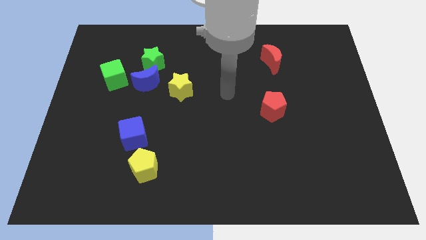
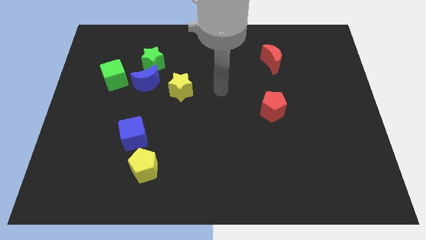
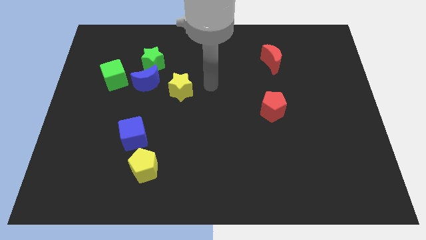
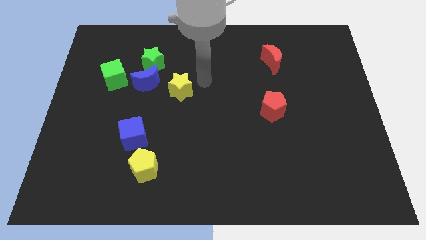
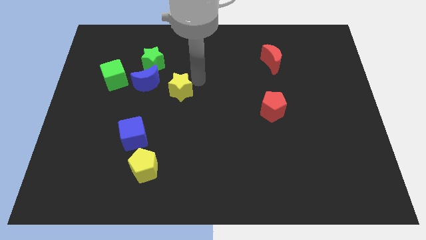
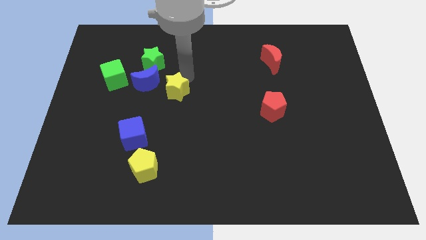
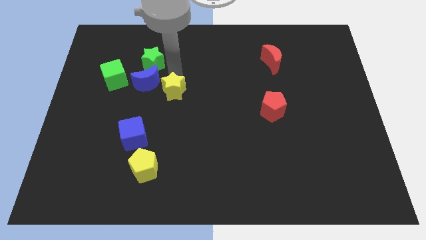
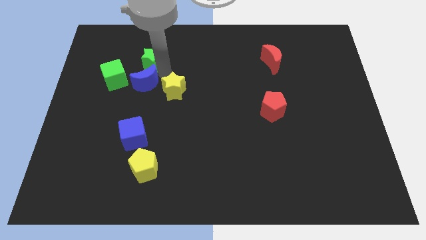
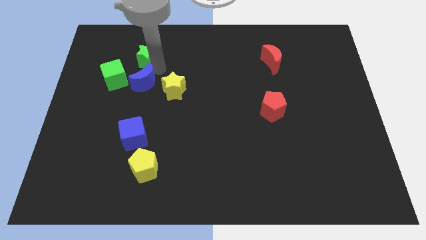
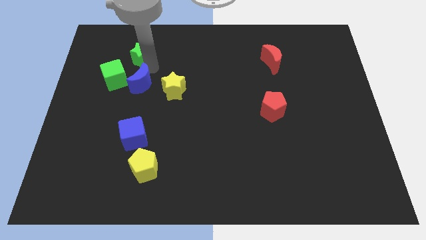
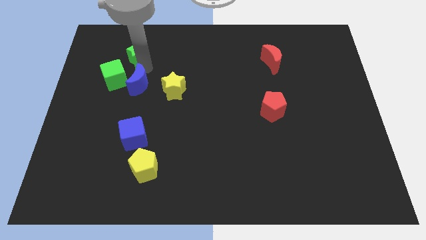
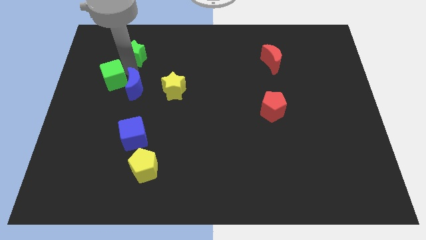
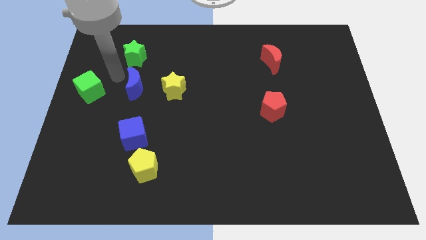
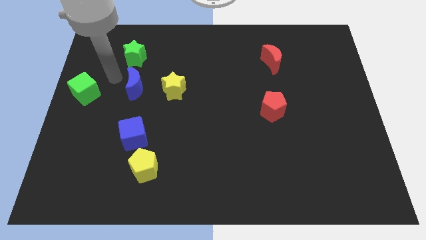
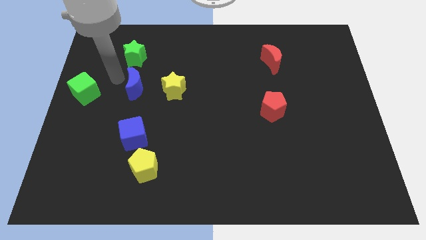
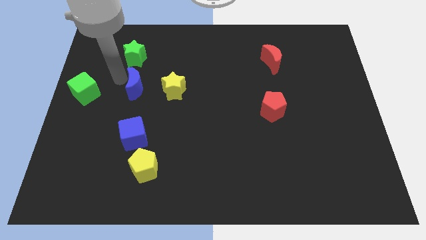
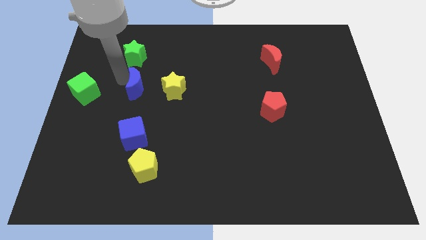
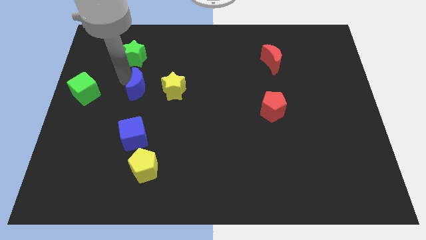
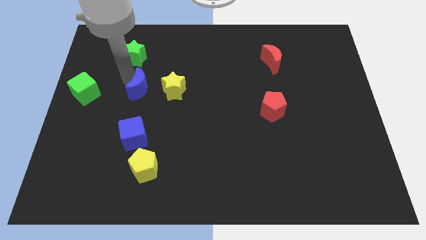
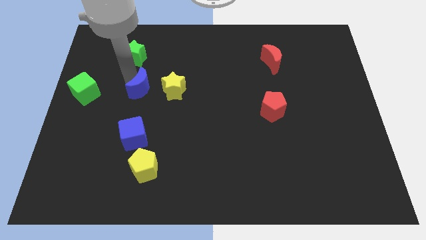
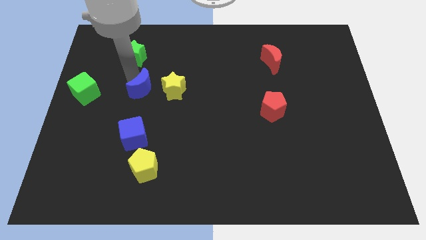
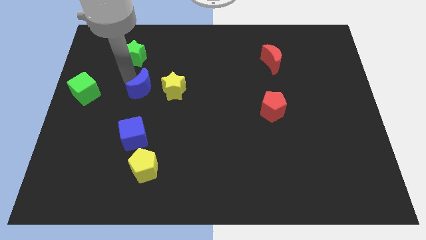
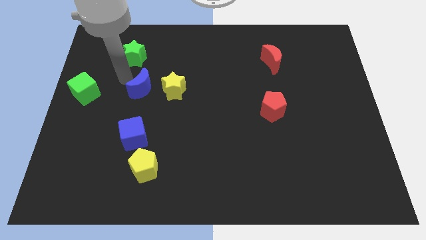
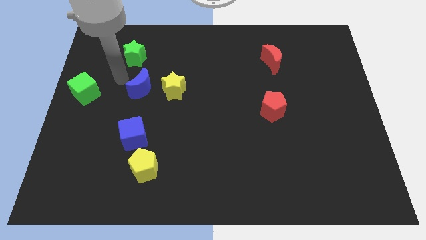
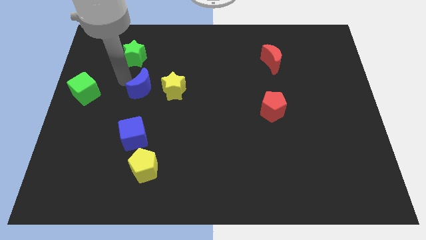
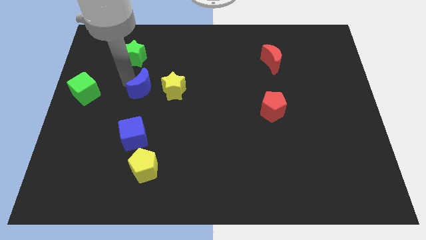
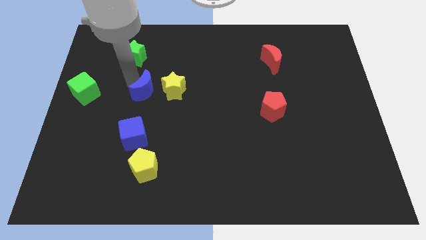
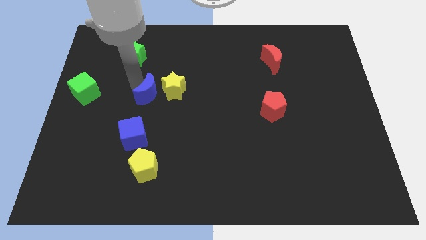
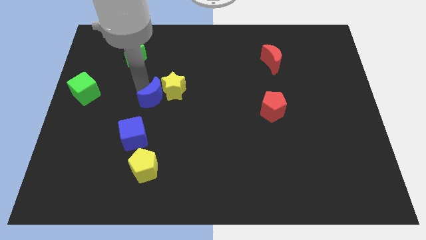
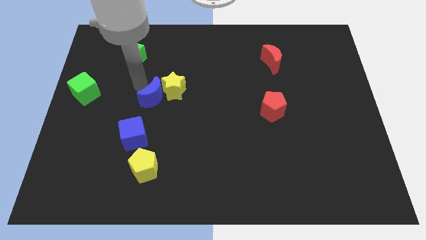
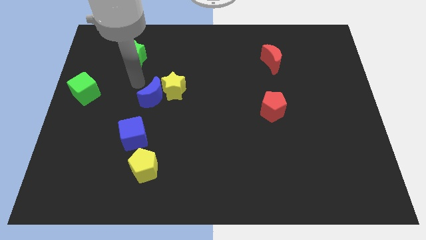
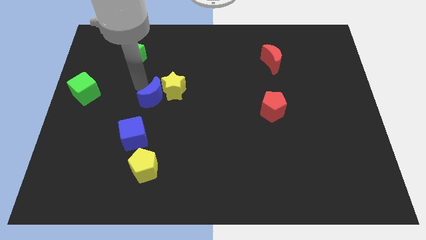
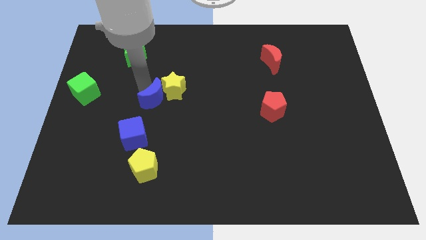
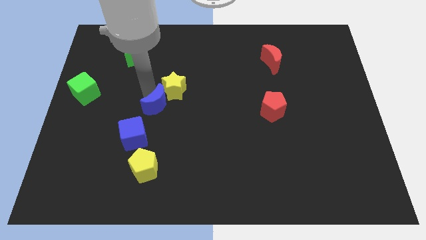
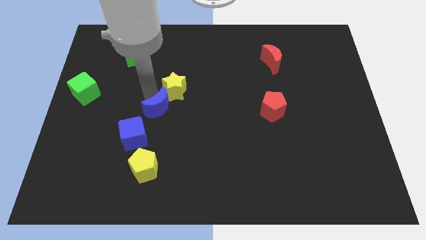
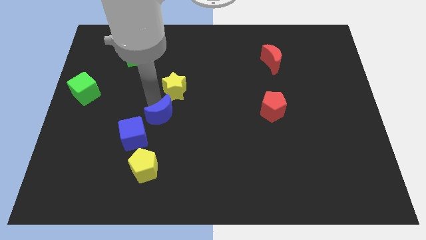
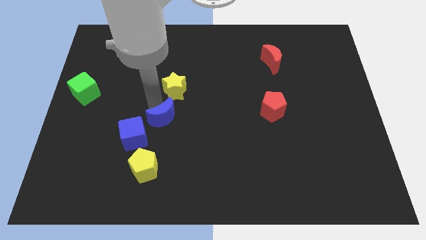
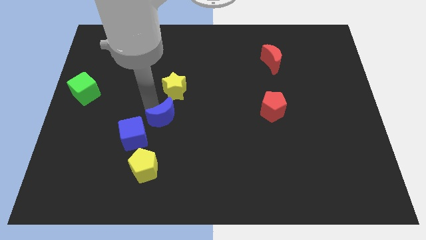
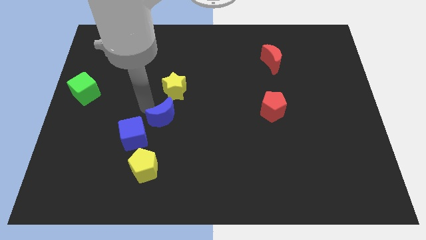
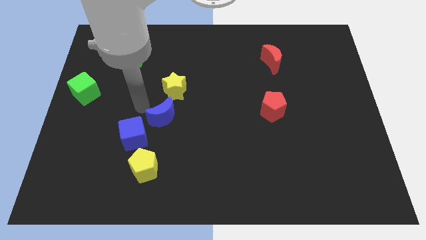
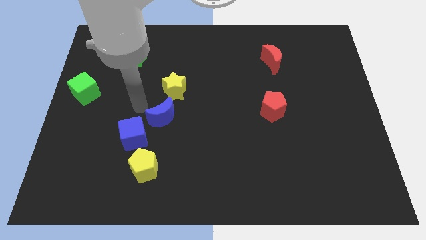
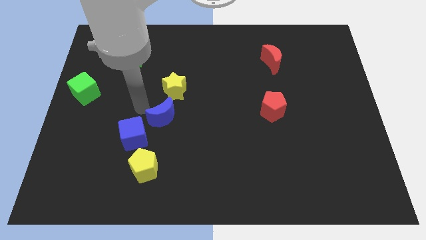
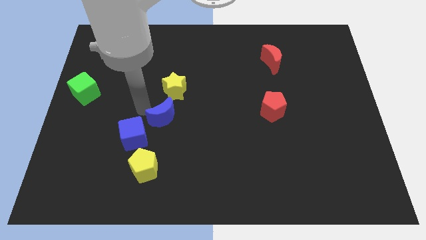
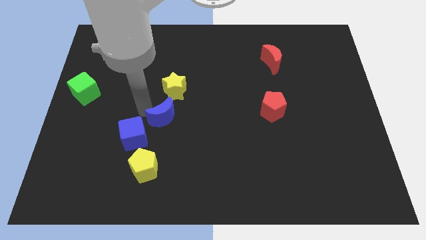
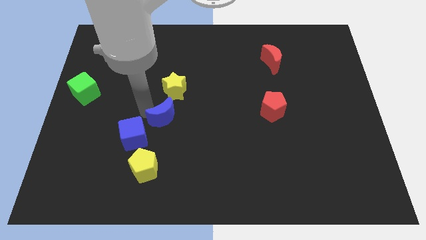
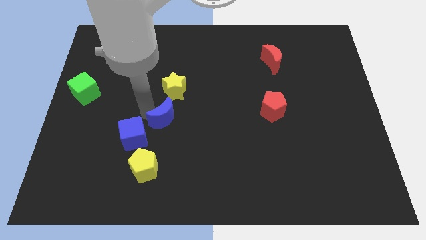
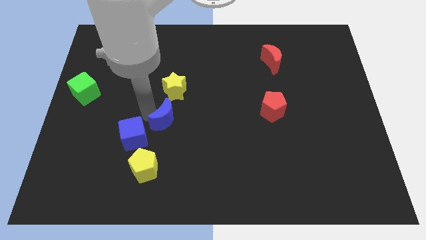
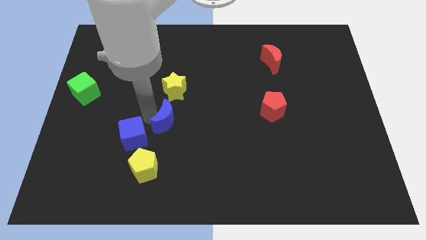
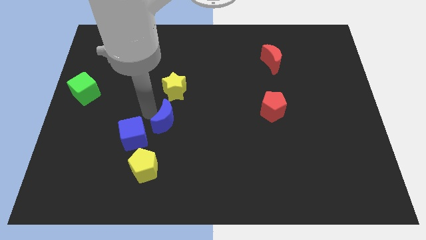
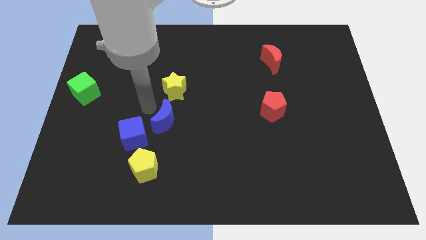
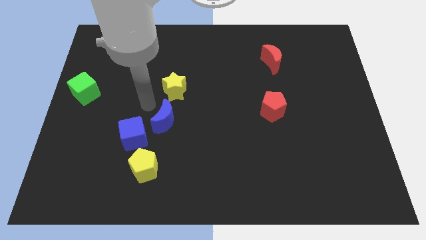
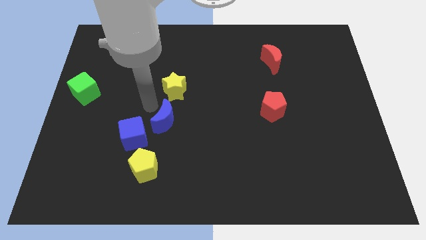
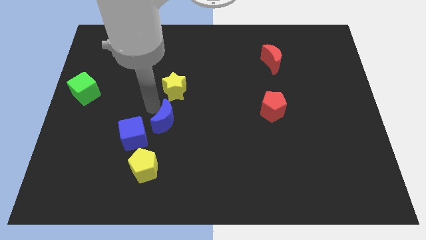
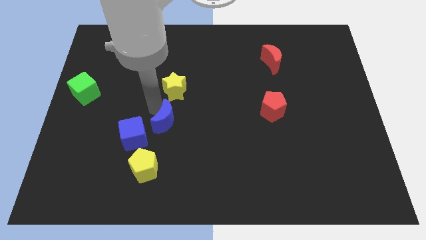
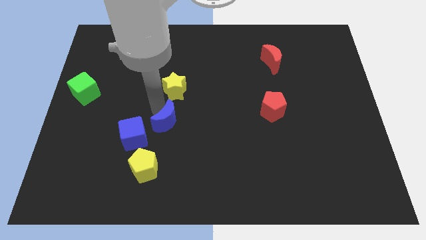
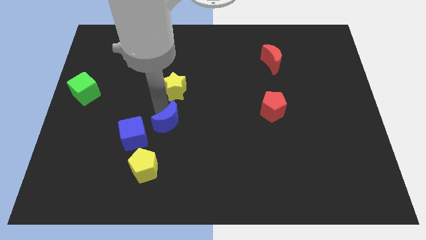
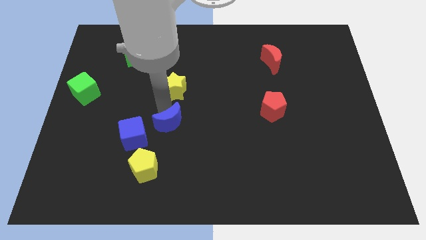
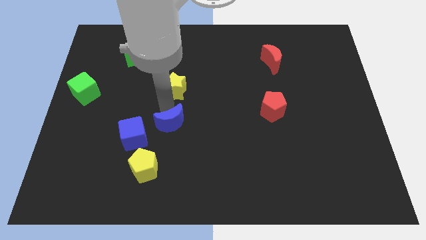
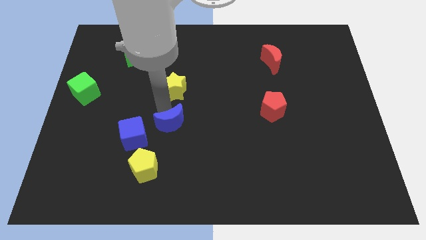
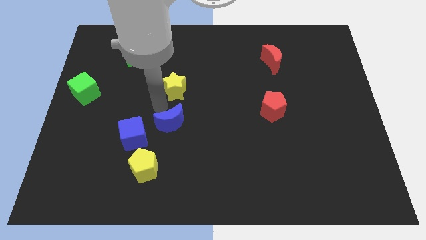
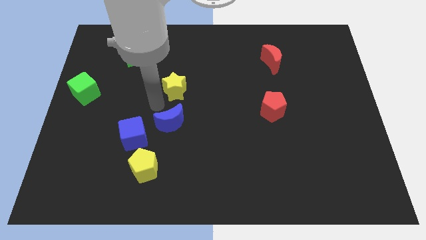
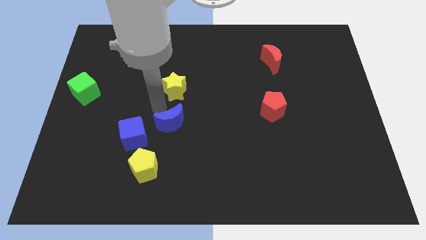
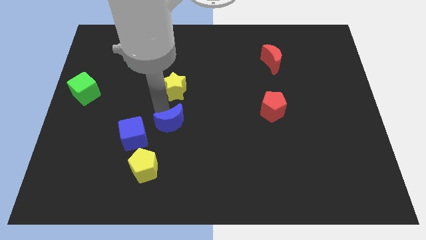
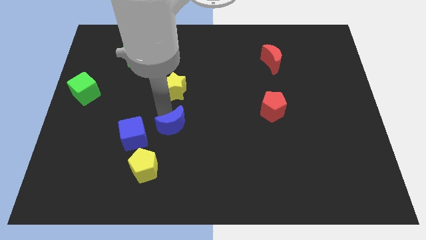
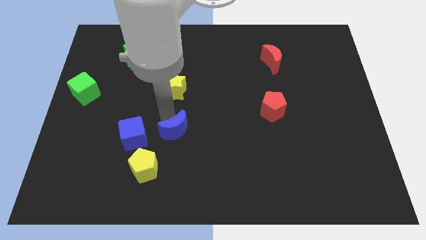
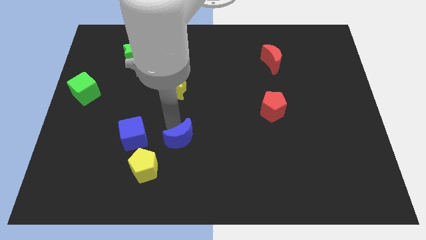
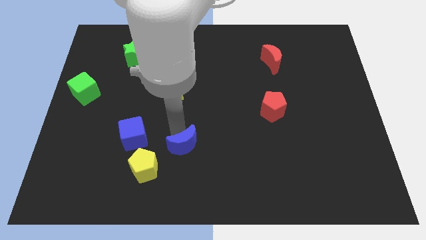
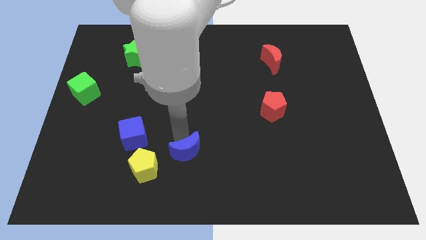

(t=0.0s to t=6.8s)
move the blue moon to the right of the yellow pentagon
